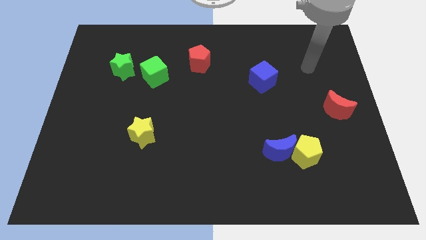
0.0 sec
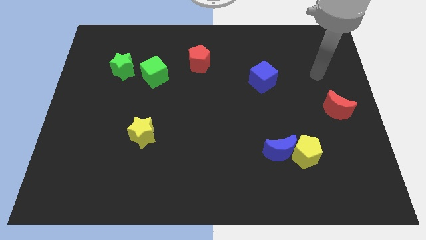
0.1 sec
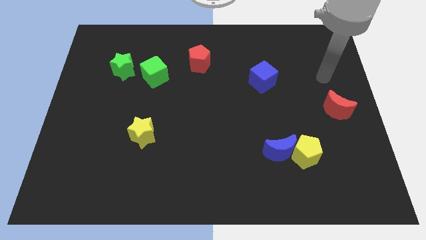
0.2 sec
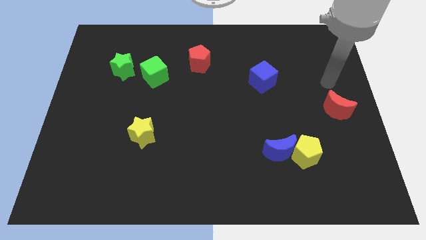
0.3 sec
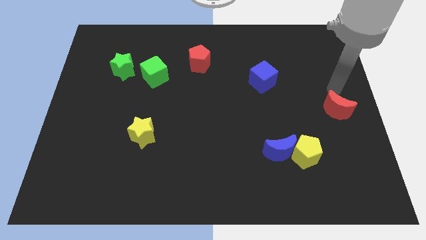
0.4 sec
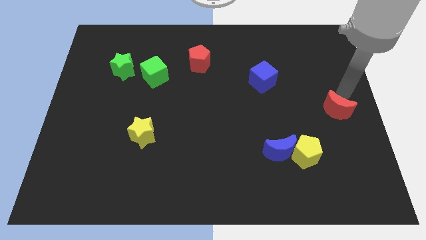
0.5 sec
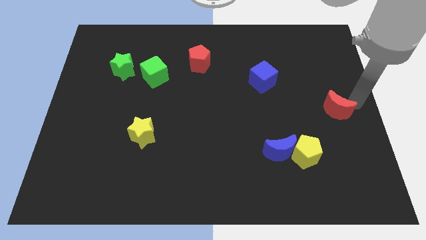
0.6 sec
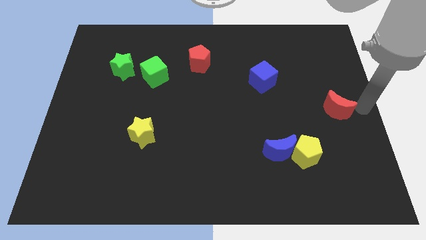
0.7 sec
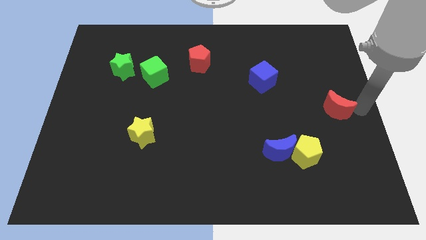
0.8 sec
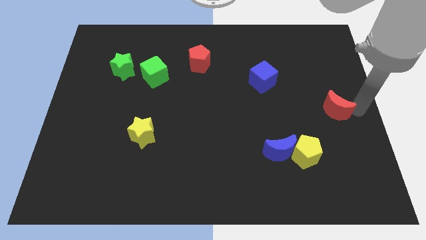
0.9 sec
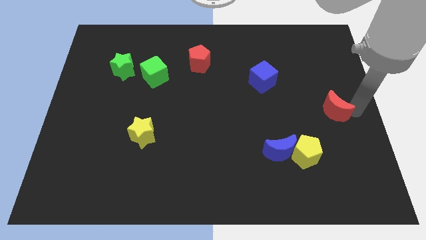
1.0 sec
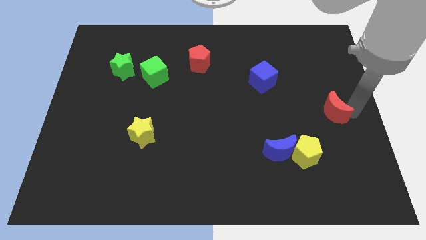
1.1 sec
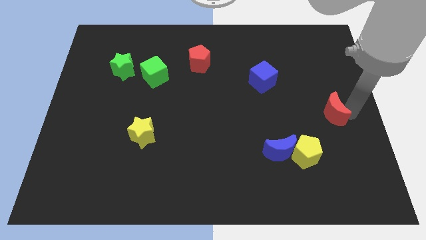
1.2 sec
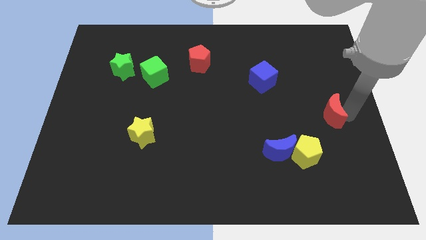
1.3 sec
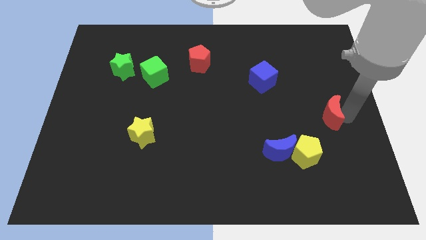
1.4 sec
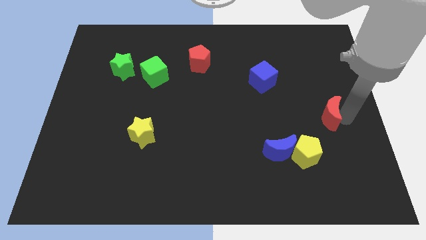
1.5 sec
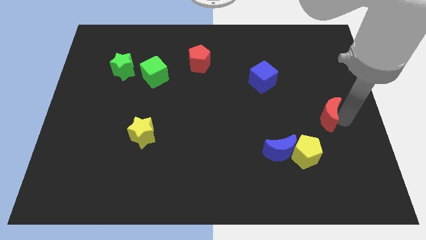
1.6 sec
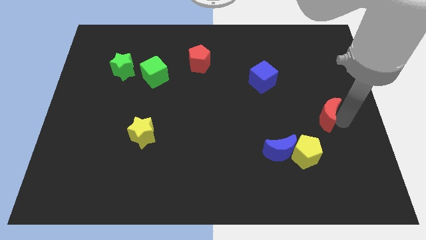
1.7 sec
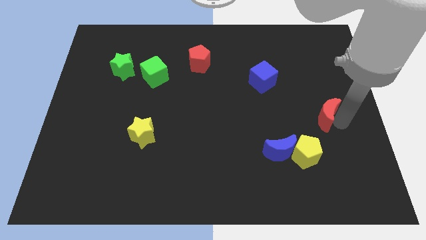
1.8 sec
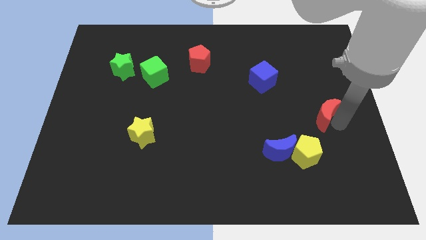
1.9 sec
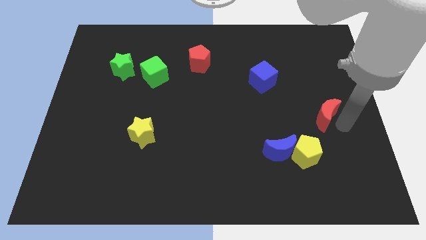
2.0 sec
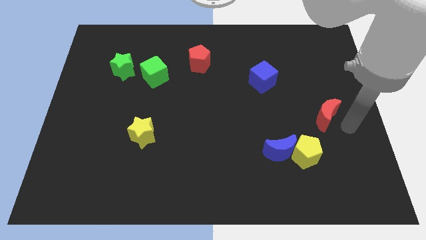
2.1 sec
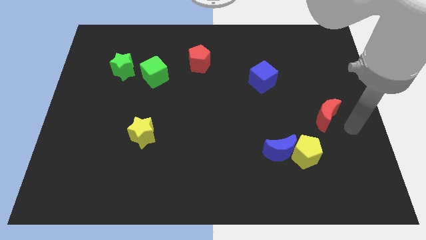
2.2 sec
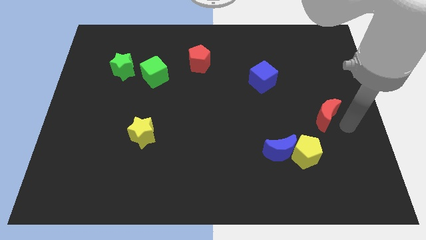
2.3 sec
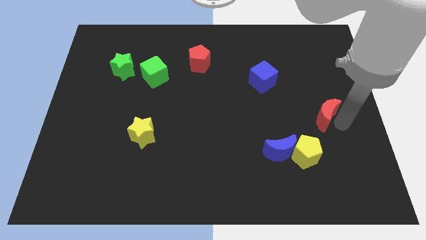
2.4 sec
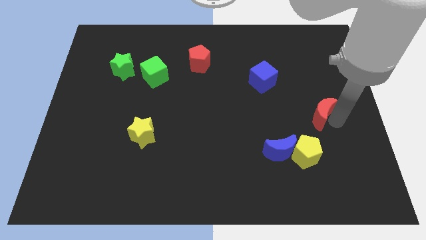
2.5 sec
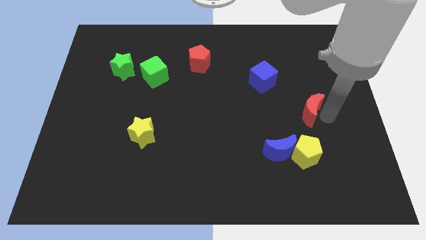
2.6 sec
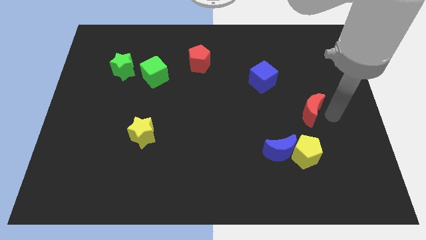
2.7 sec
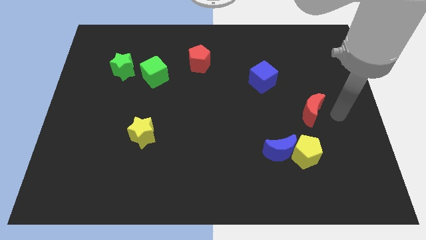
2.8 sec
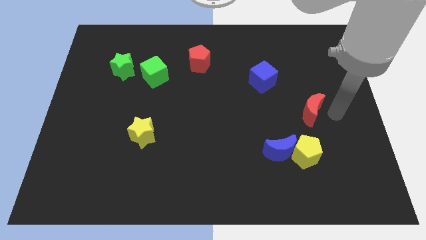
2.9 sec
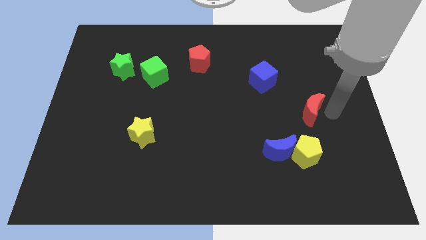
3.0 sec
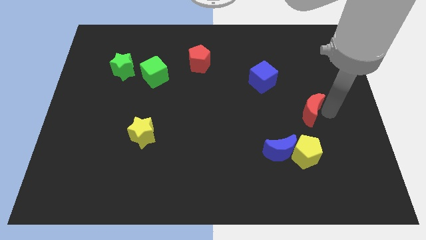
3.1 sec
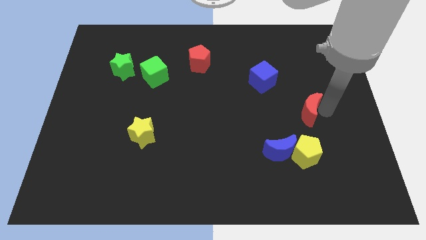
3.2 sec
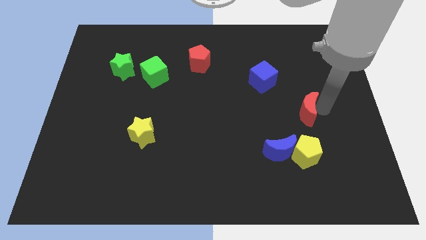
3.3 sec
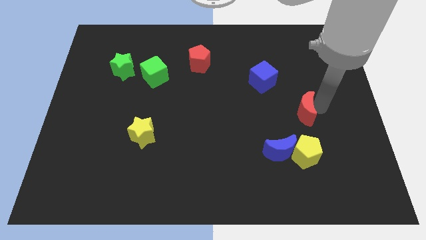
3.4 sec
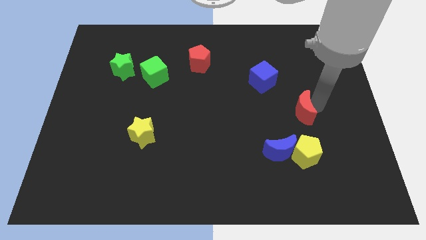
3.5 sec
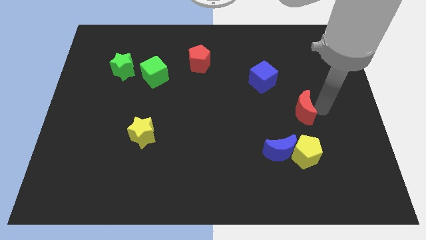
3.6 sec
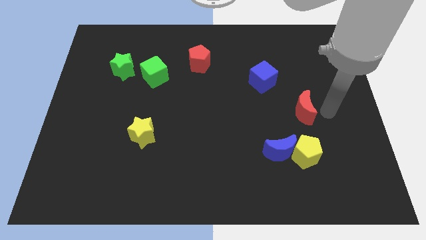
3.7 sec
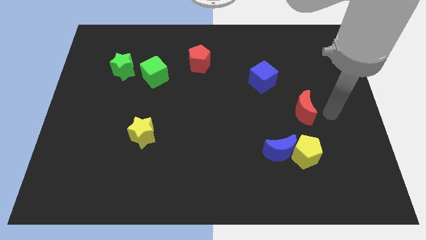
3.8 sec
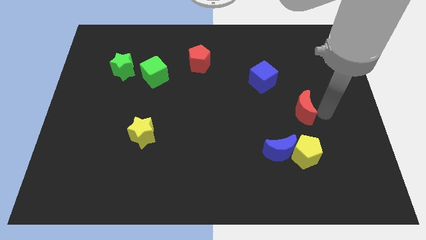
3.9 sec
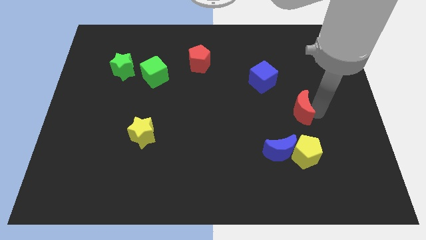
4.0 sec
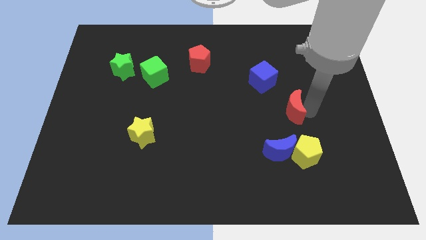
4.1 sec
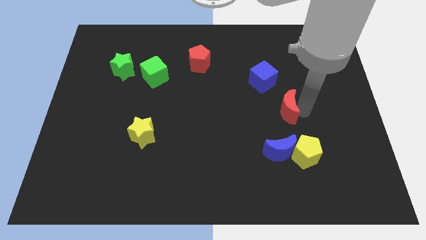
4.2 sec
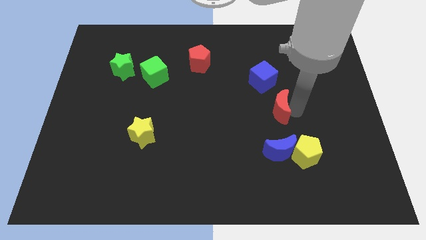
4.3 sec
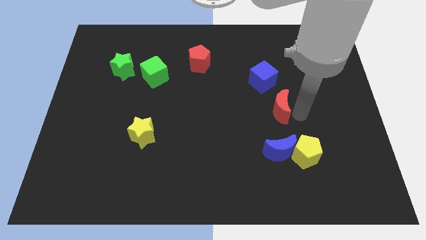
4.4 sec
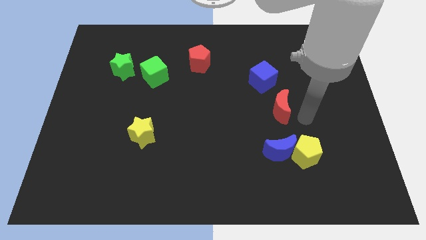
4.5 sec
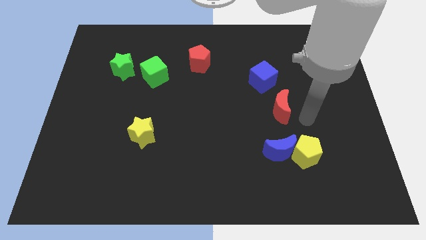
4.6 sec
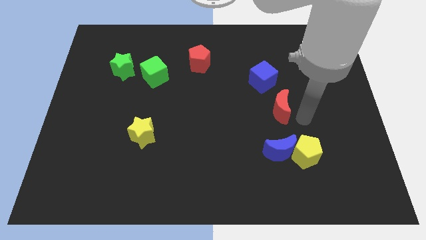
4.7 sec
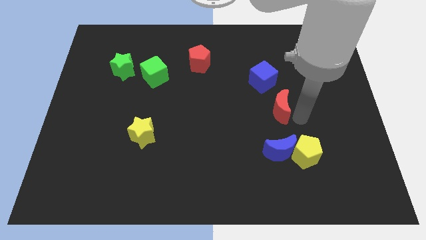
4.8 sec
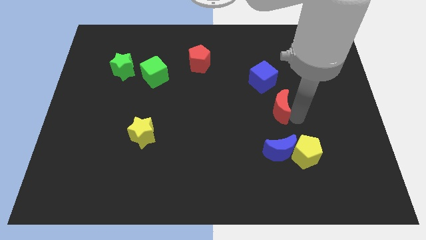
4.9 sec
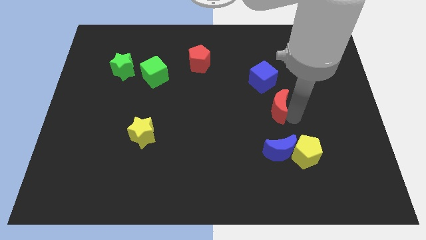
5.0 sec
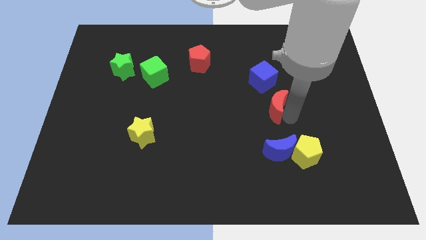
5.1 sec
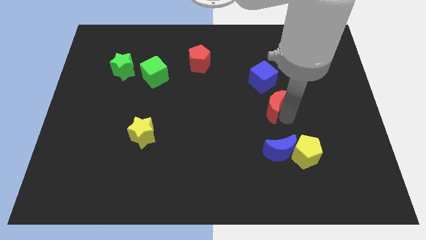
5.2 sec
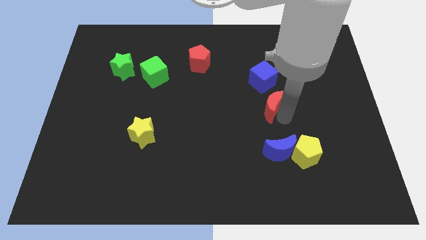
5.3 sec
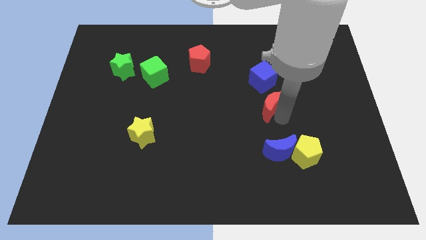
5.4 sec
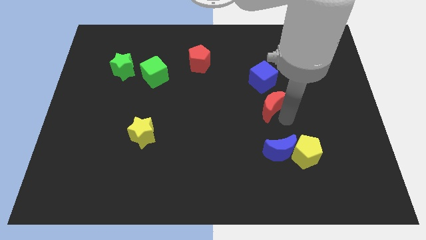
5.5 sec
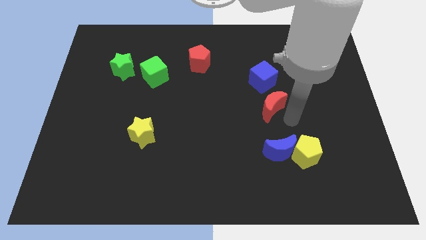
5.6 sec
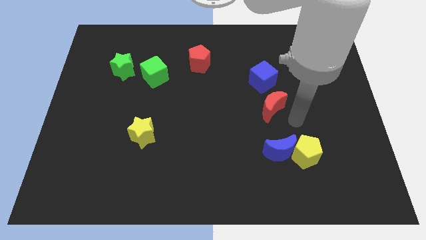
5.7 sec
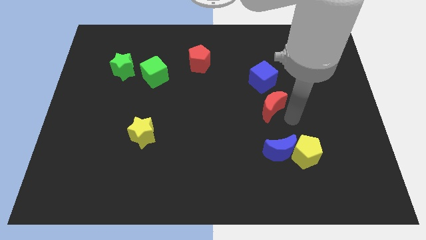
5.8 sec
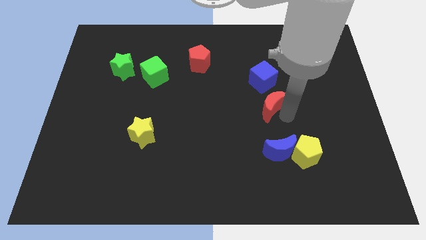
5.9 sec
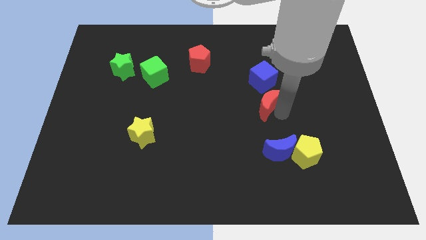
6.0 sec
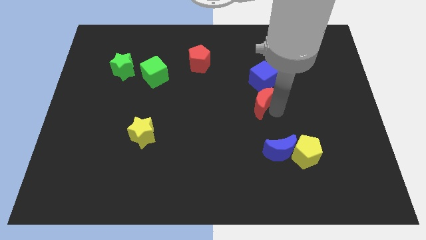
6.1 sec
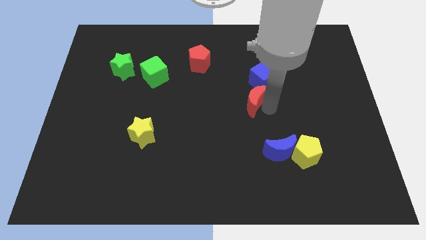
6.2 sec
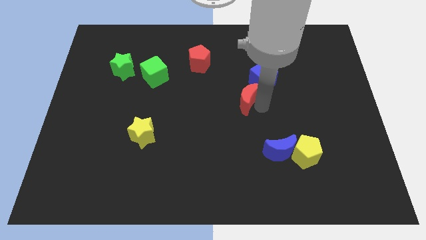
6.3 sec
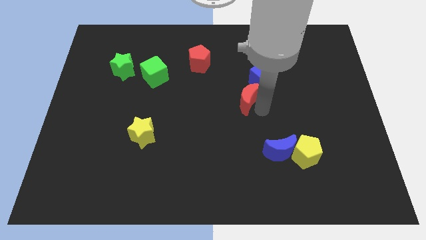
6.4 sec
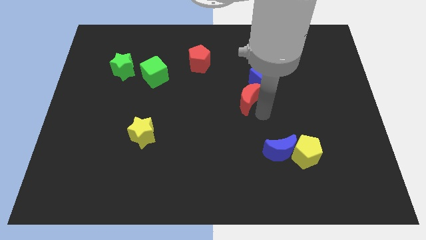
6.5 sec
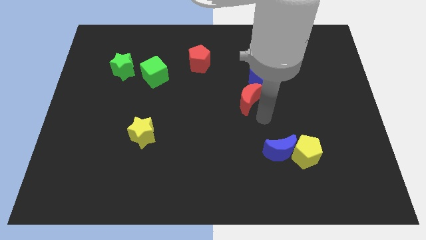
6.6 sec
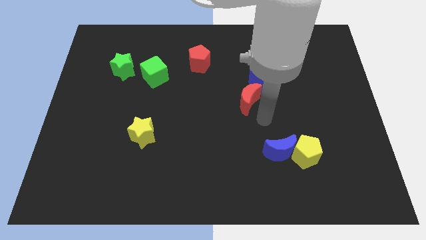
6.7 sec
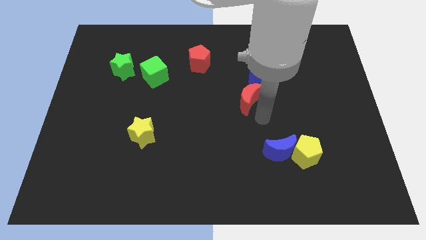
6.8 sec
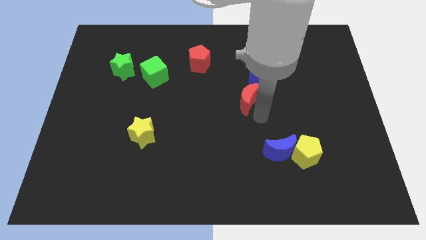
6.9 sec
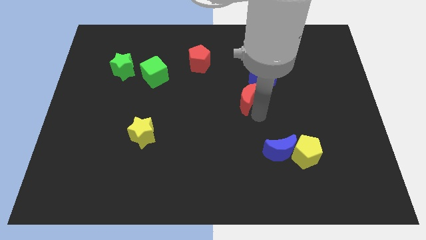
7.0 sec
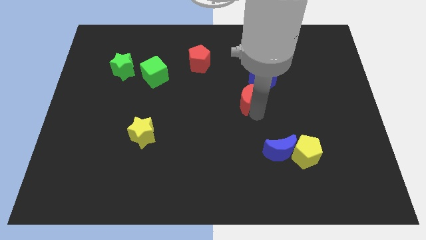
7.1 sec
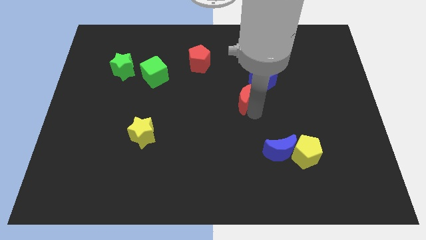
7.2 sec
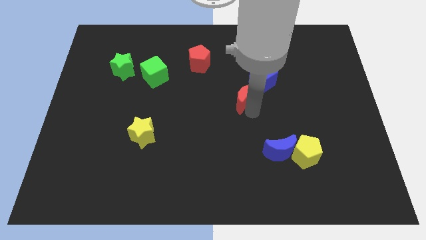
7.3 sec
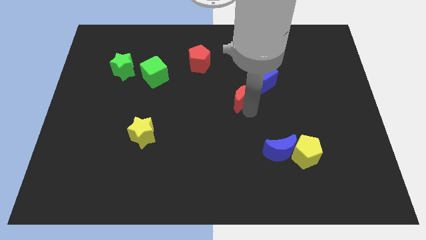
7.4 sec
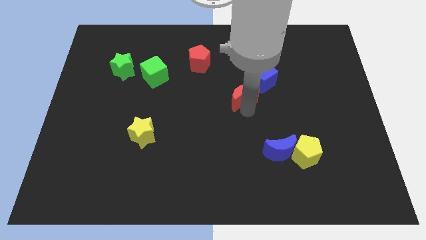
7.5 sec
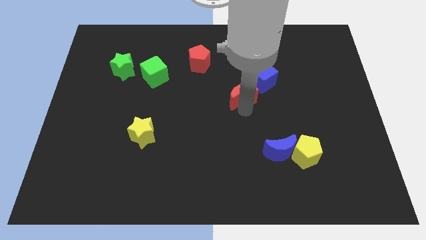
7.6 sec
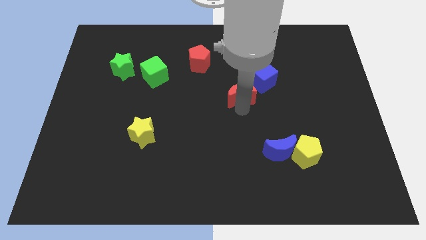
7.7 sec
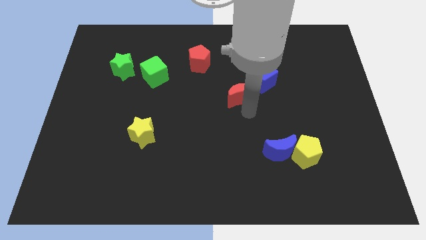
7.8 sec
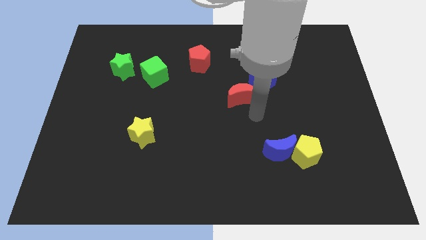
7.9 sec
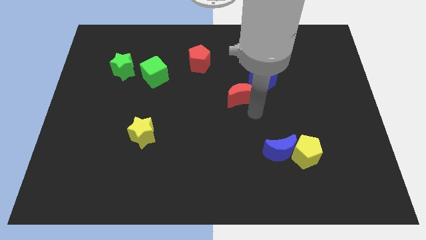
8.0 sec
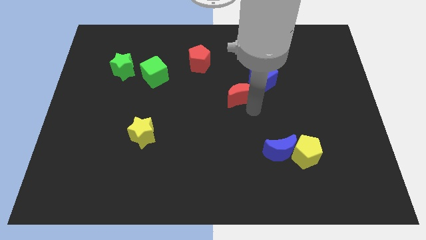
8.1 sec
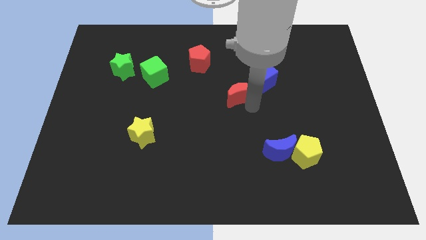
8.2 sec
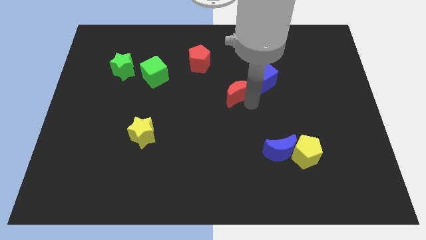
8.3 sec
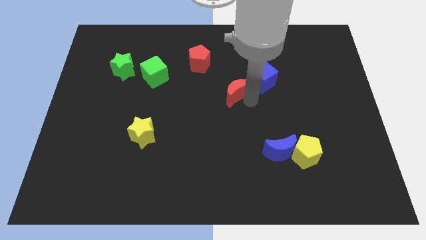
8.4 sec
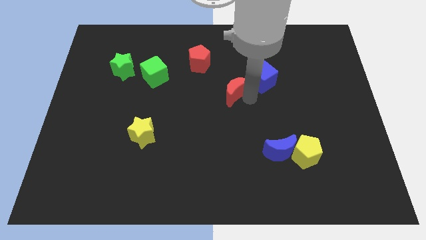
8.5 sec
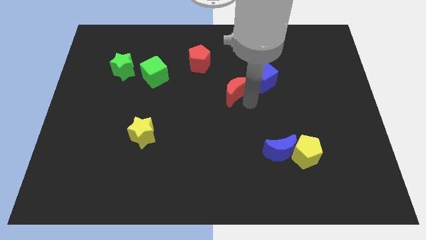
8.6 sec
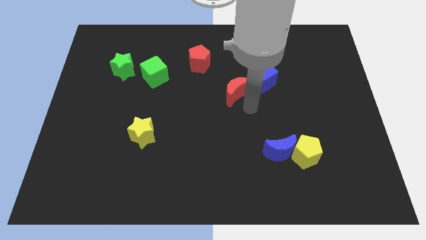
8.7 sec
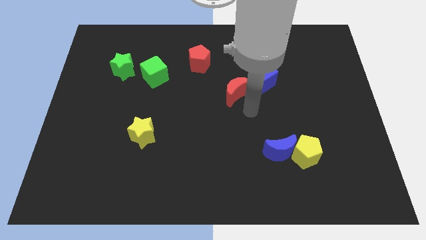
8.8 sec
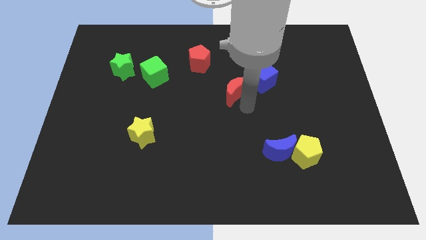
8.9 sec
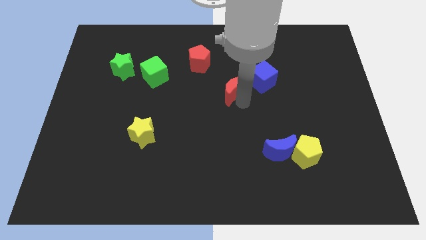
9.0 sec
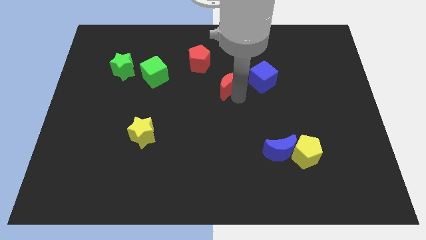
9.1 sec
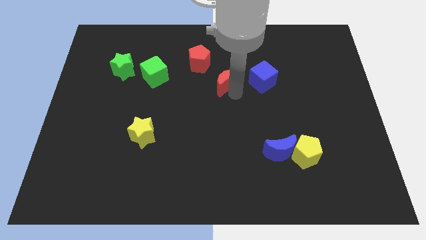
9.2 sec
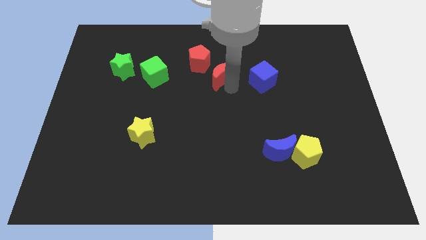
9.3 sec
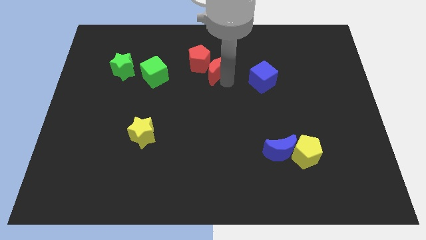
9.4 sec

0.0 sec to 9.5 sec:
put the red moon towards the red pentagon
